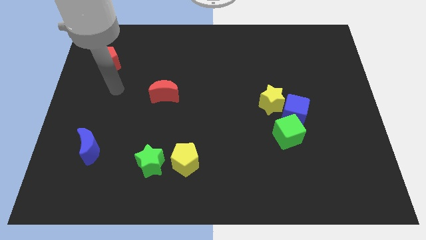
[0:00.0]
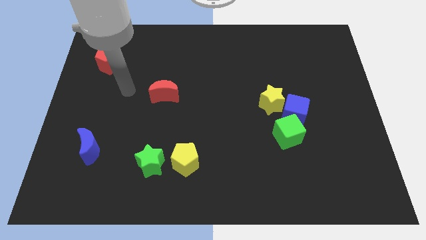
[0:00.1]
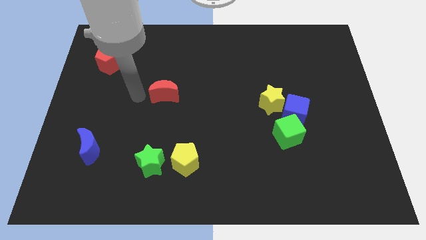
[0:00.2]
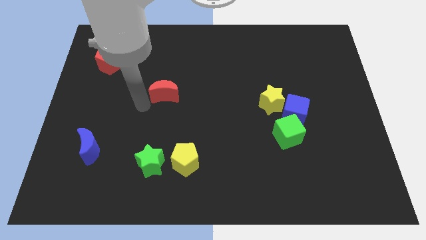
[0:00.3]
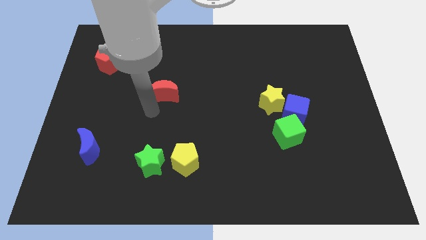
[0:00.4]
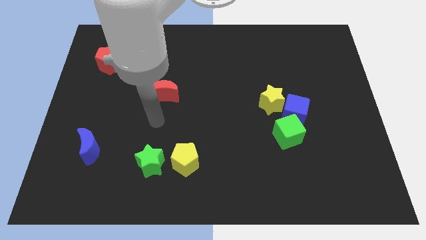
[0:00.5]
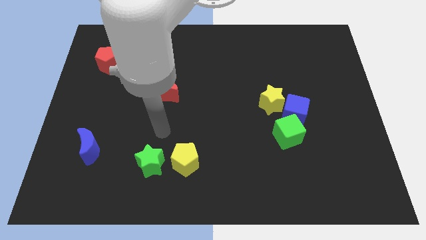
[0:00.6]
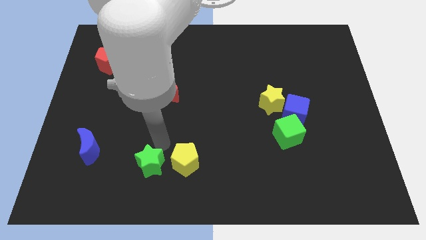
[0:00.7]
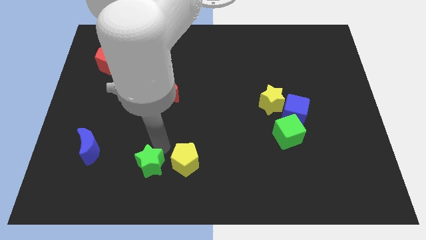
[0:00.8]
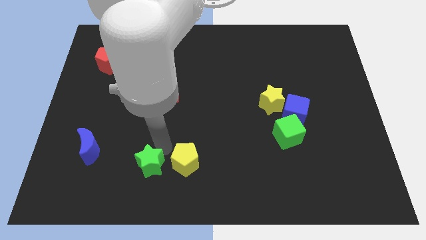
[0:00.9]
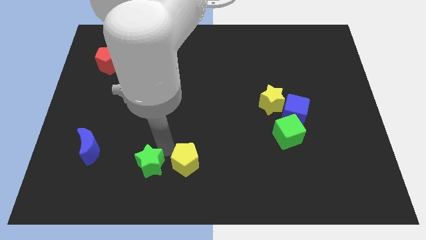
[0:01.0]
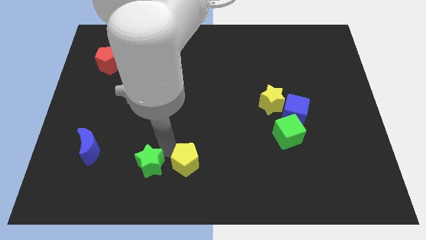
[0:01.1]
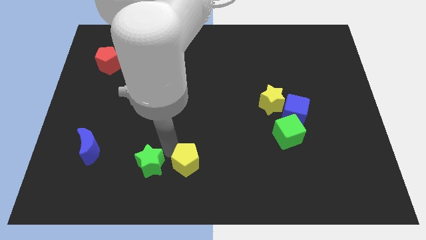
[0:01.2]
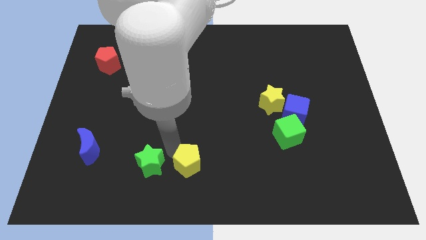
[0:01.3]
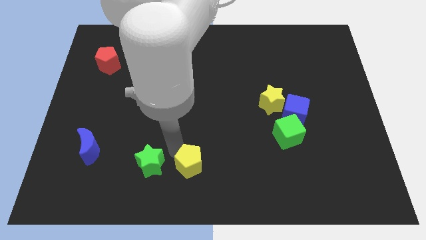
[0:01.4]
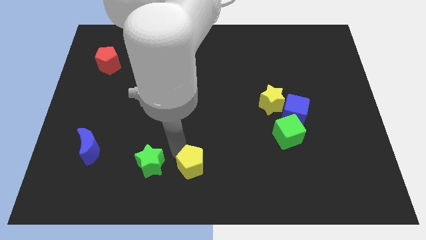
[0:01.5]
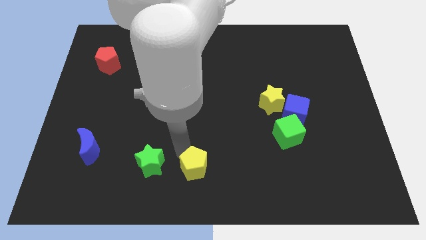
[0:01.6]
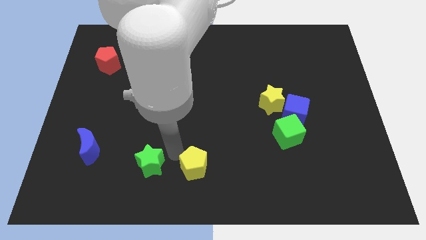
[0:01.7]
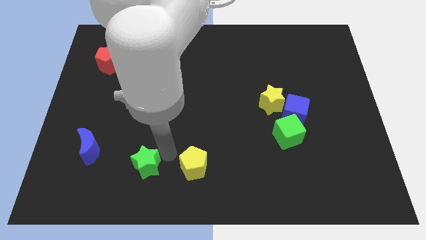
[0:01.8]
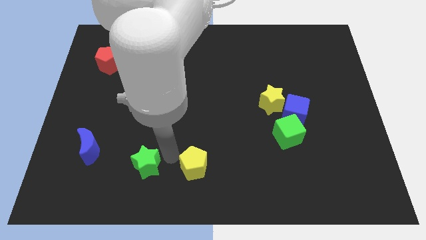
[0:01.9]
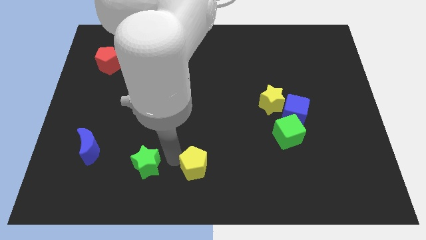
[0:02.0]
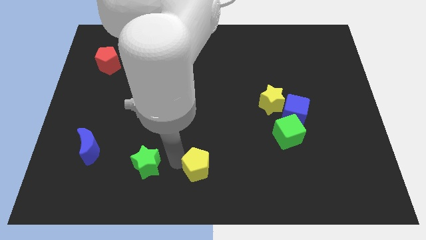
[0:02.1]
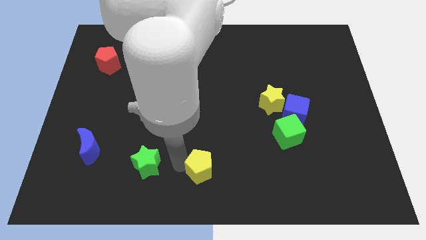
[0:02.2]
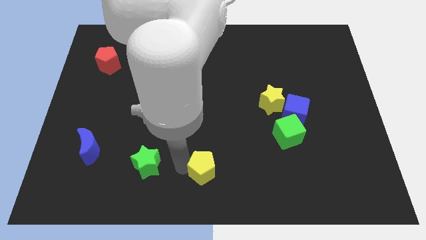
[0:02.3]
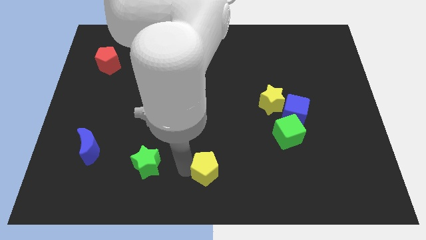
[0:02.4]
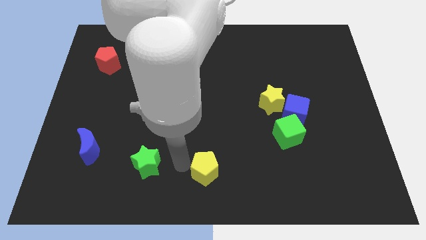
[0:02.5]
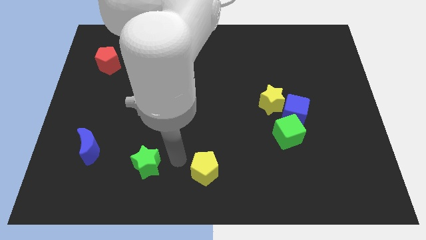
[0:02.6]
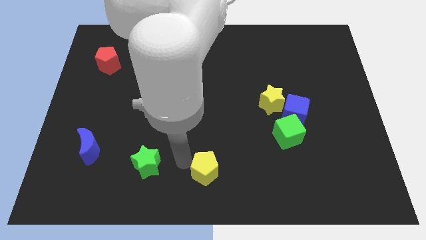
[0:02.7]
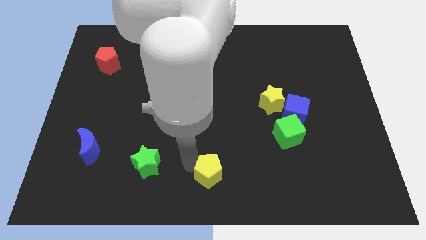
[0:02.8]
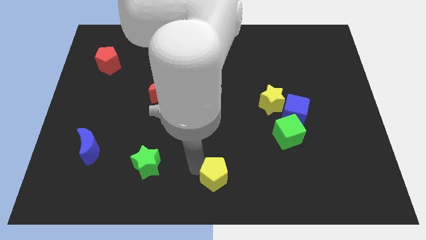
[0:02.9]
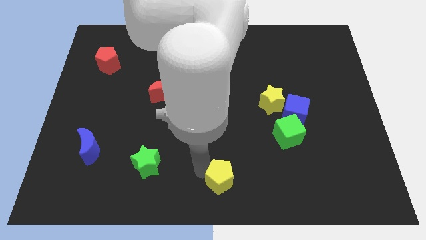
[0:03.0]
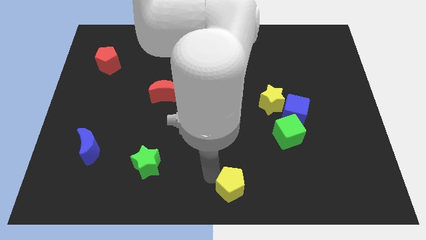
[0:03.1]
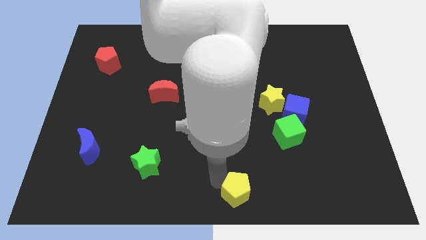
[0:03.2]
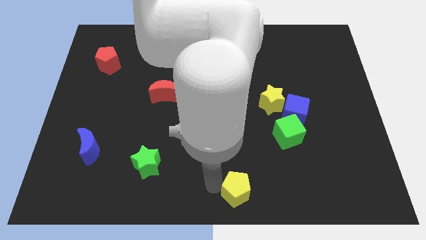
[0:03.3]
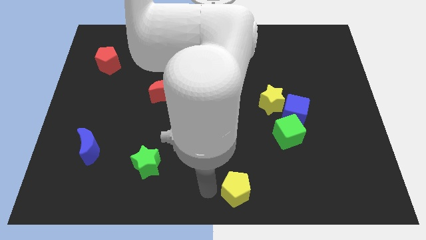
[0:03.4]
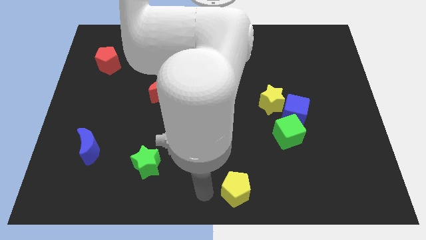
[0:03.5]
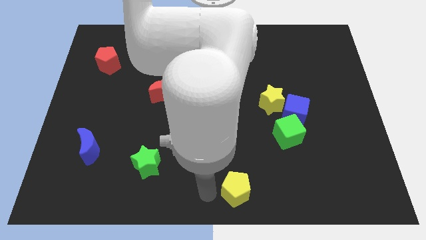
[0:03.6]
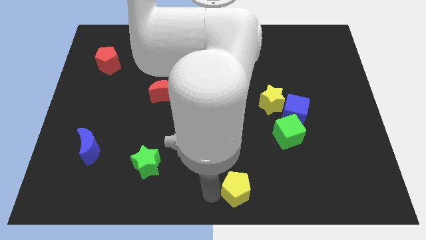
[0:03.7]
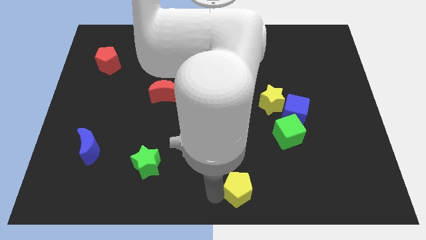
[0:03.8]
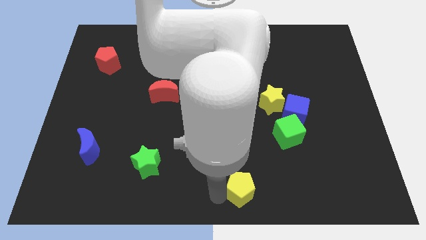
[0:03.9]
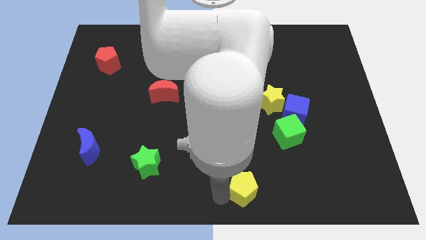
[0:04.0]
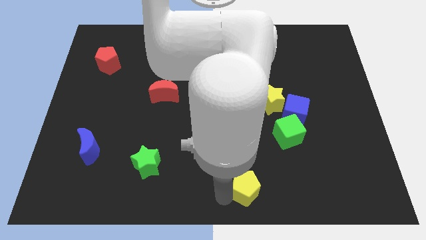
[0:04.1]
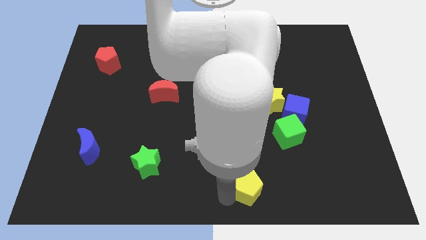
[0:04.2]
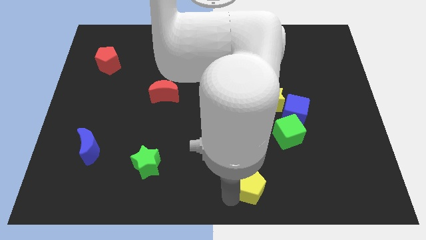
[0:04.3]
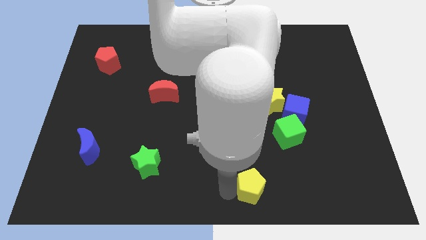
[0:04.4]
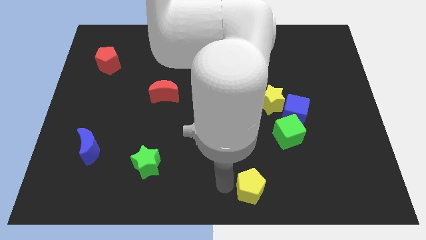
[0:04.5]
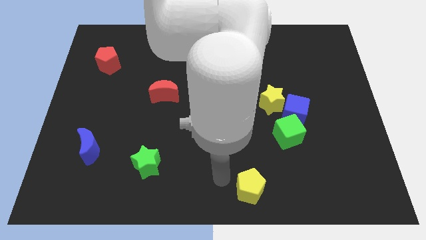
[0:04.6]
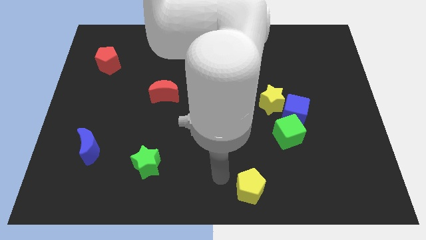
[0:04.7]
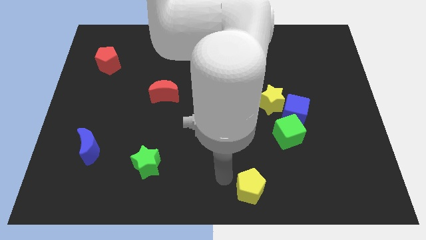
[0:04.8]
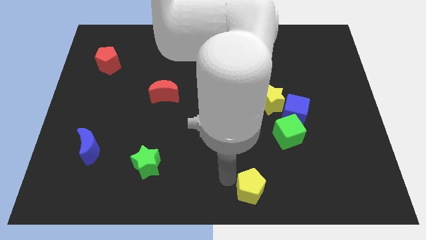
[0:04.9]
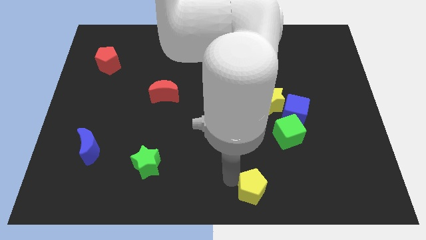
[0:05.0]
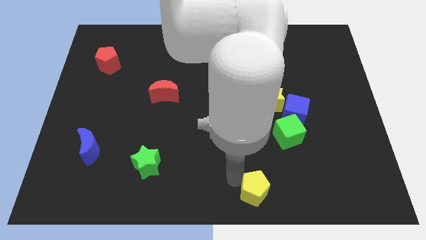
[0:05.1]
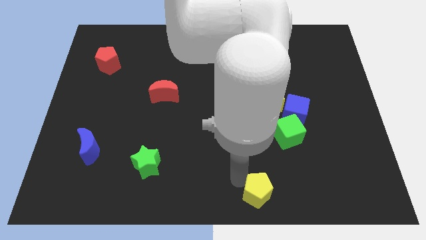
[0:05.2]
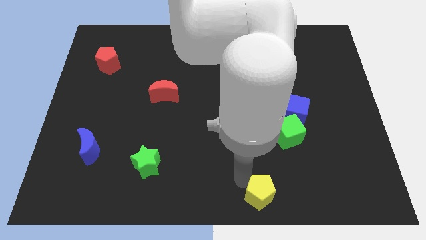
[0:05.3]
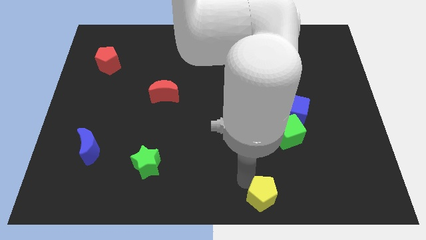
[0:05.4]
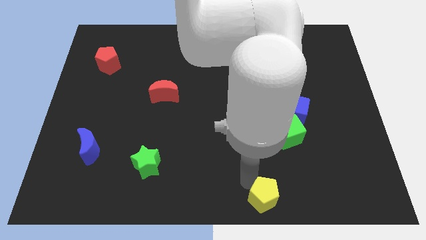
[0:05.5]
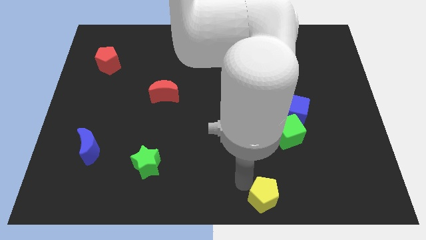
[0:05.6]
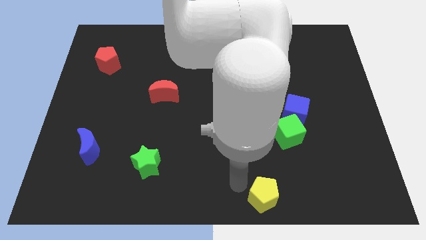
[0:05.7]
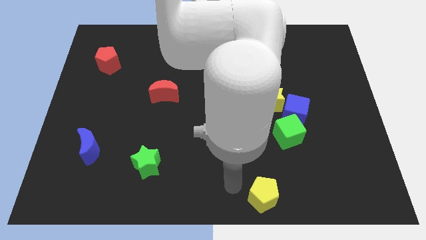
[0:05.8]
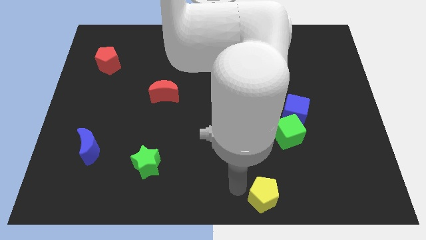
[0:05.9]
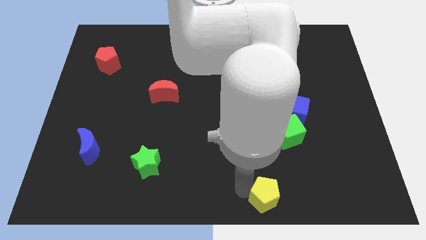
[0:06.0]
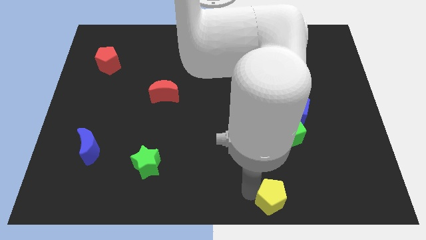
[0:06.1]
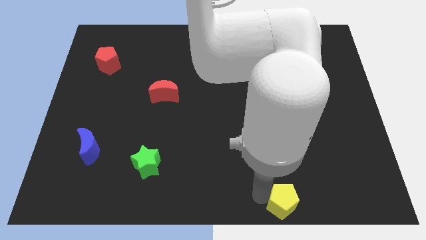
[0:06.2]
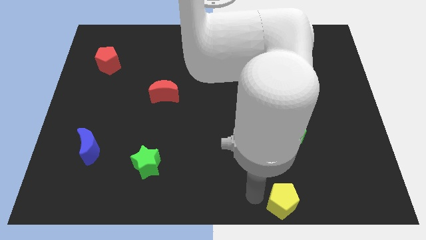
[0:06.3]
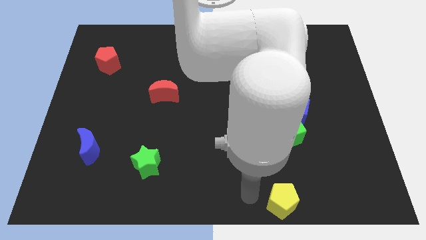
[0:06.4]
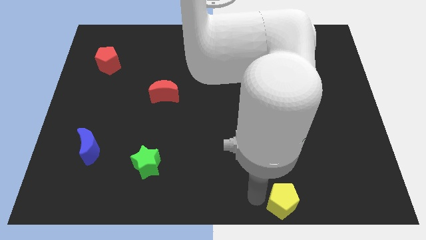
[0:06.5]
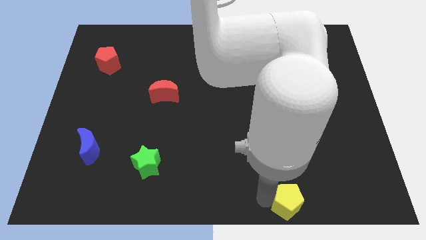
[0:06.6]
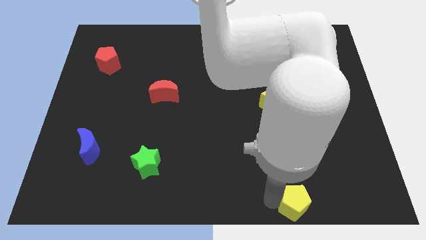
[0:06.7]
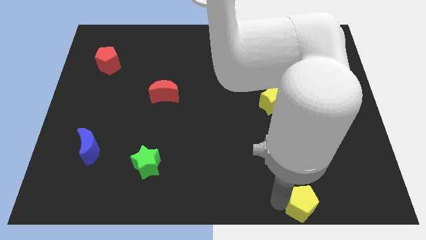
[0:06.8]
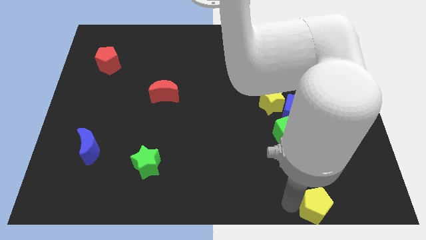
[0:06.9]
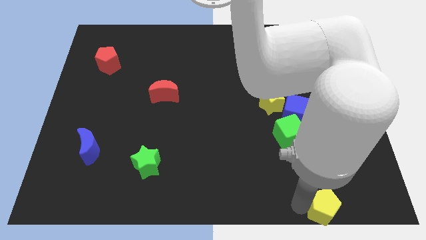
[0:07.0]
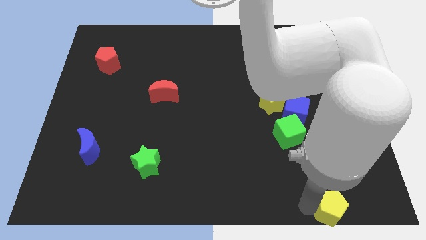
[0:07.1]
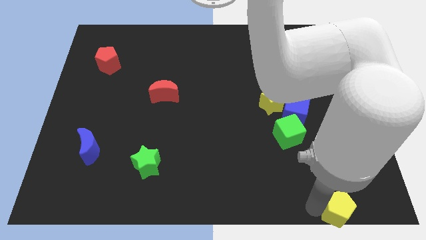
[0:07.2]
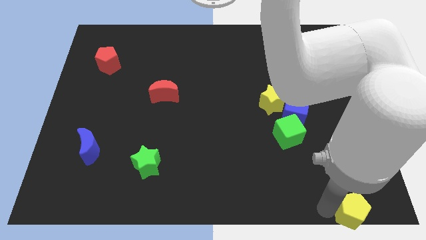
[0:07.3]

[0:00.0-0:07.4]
slide the yellow pentagon to the bottom right
